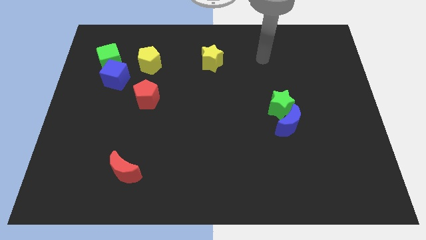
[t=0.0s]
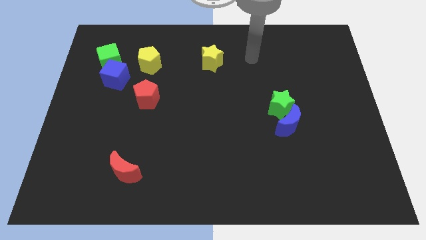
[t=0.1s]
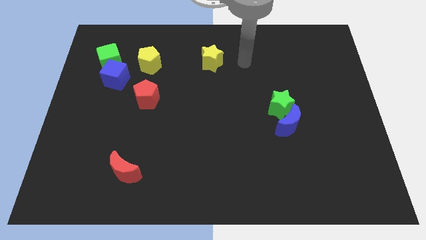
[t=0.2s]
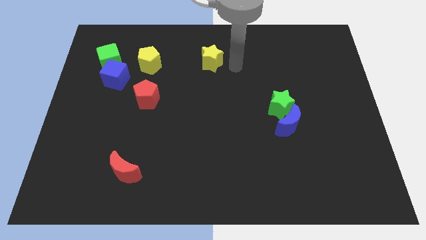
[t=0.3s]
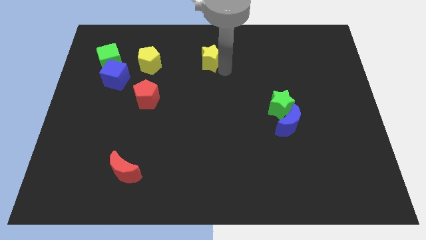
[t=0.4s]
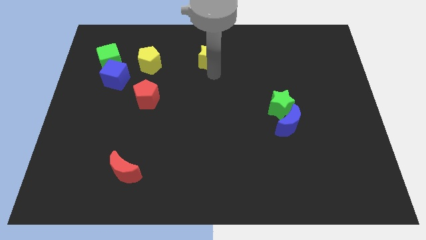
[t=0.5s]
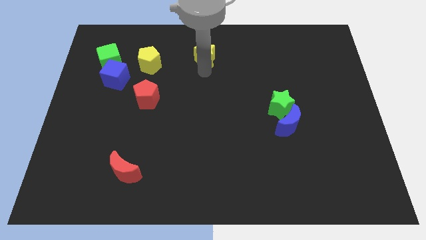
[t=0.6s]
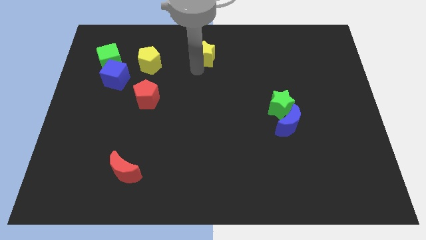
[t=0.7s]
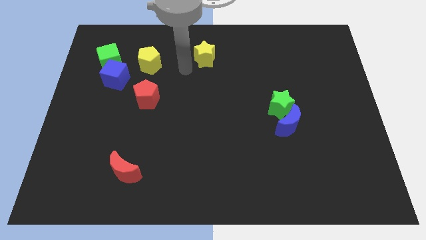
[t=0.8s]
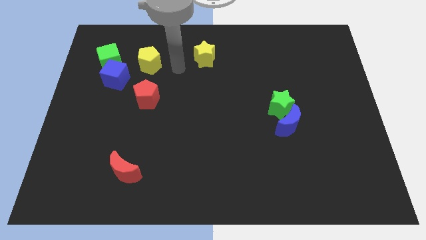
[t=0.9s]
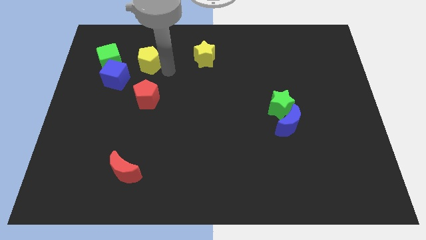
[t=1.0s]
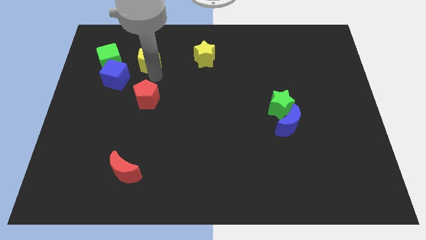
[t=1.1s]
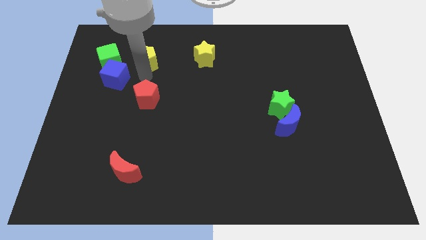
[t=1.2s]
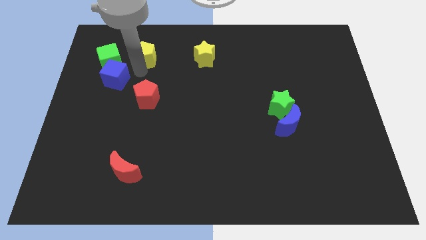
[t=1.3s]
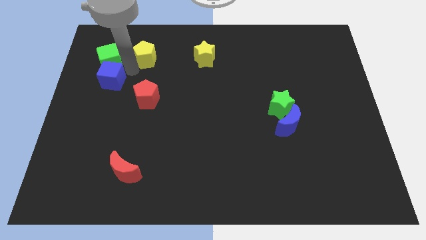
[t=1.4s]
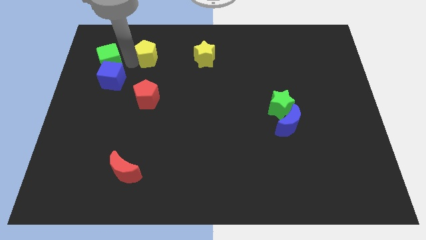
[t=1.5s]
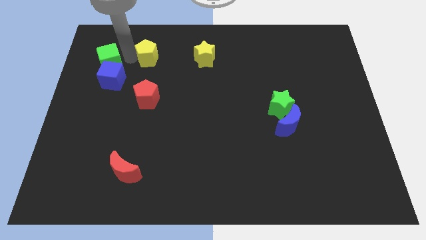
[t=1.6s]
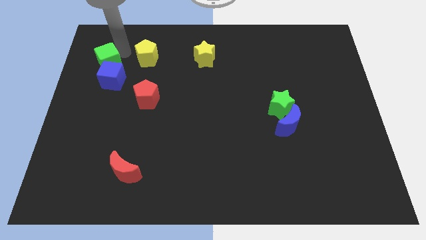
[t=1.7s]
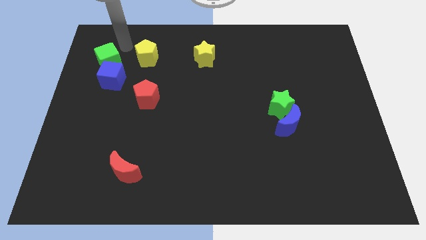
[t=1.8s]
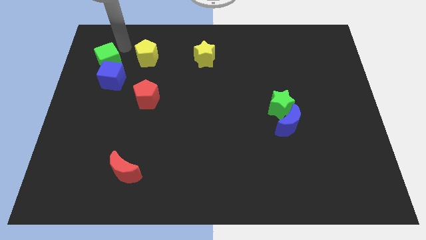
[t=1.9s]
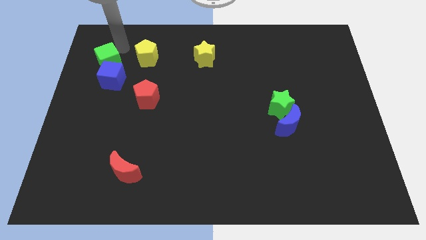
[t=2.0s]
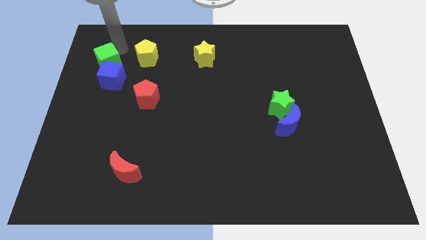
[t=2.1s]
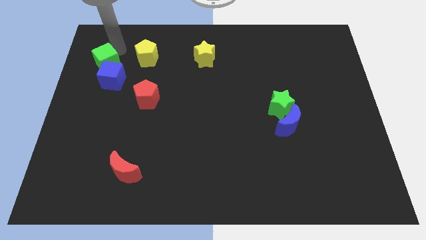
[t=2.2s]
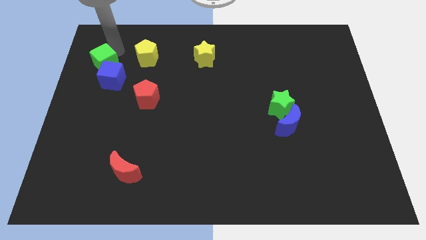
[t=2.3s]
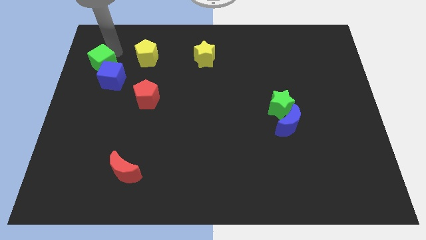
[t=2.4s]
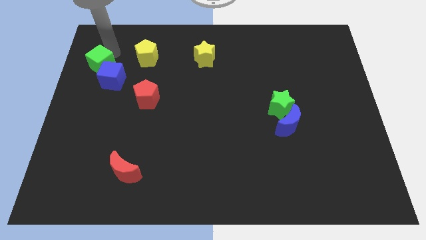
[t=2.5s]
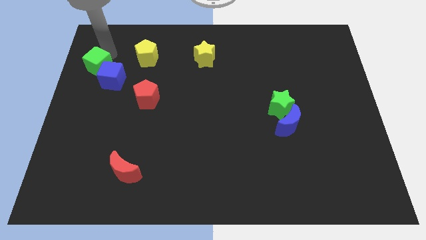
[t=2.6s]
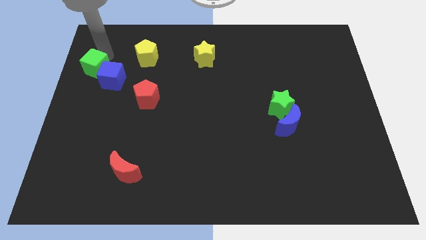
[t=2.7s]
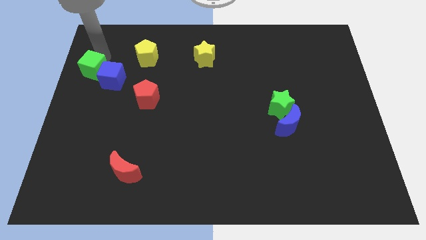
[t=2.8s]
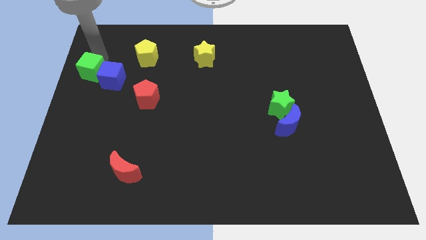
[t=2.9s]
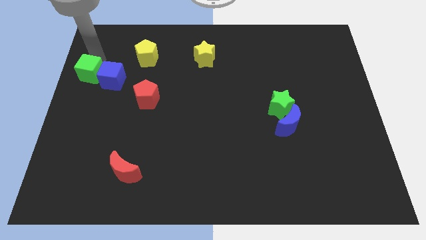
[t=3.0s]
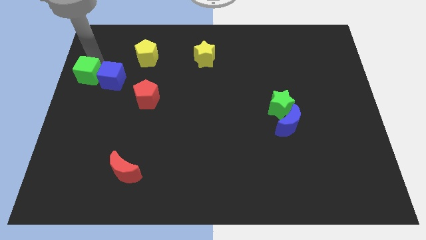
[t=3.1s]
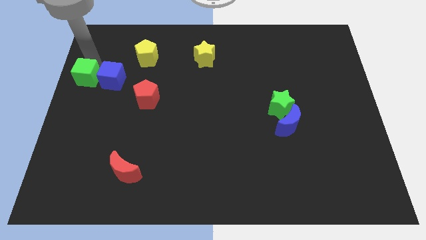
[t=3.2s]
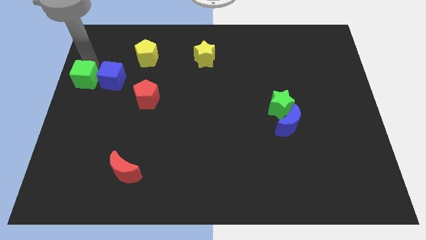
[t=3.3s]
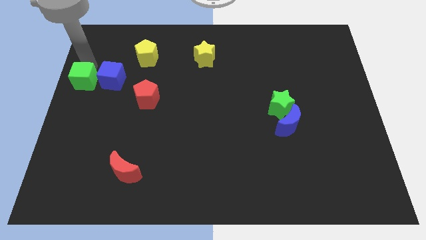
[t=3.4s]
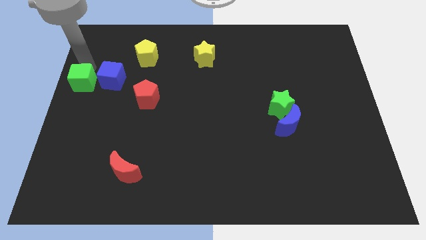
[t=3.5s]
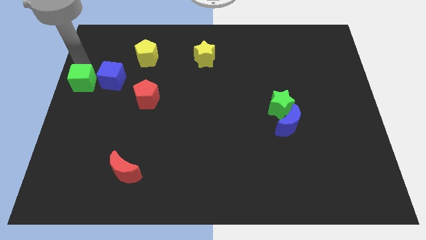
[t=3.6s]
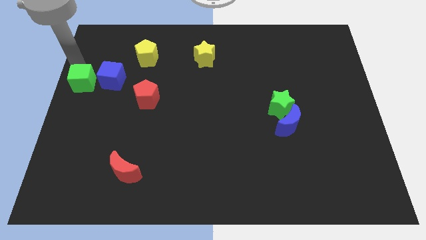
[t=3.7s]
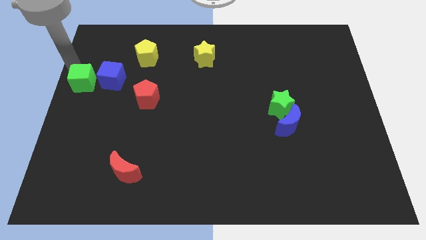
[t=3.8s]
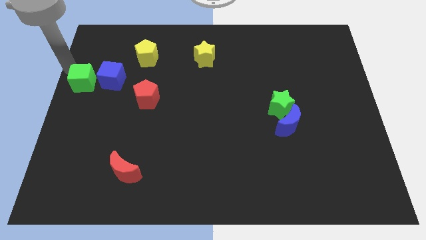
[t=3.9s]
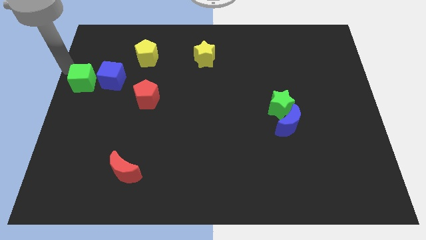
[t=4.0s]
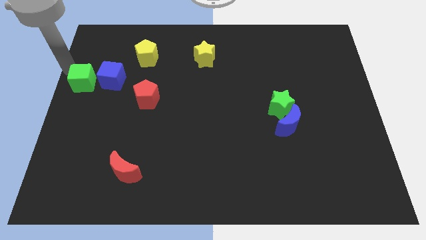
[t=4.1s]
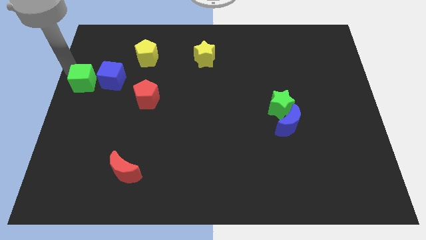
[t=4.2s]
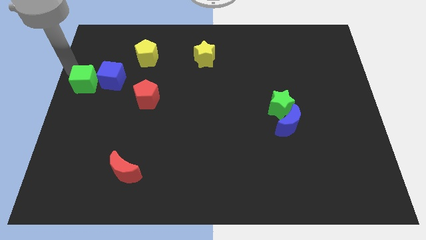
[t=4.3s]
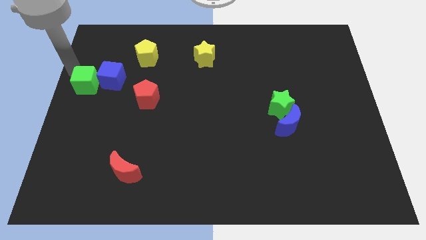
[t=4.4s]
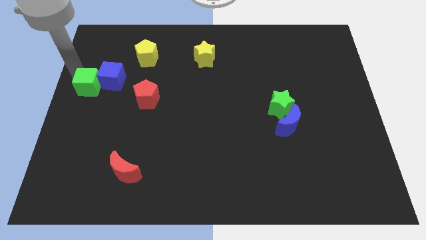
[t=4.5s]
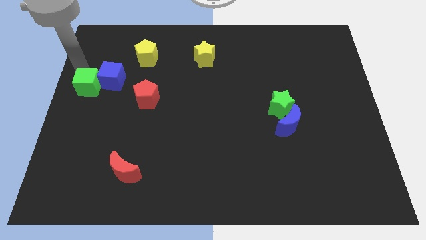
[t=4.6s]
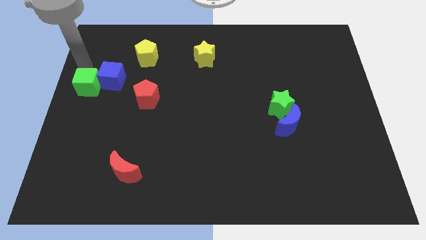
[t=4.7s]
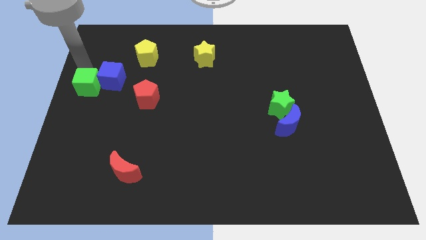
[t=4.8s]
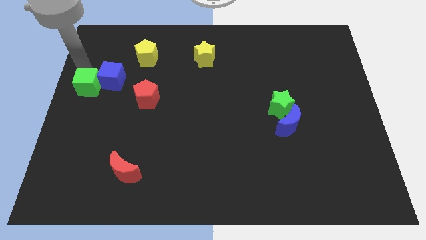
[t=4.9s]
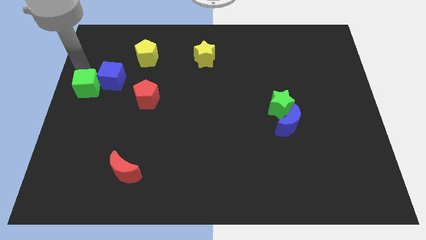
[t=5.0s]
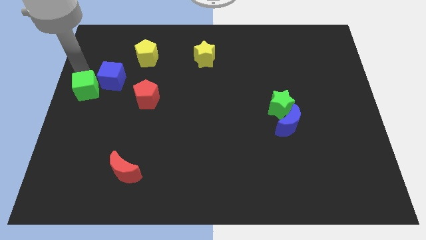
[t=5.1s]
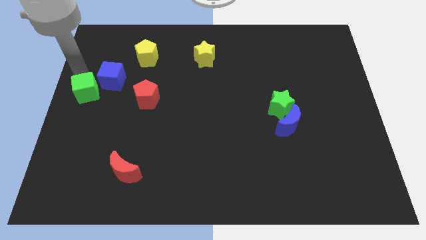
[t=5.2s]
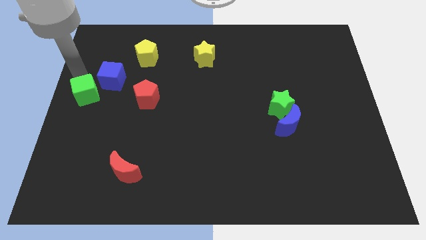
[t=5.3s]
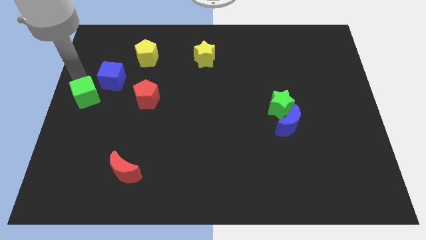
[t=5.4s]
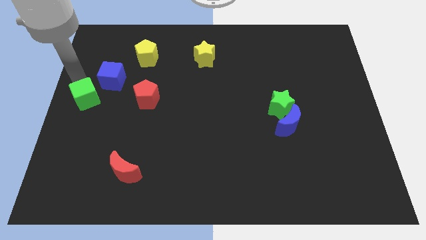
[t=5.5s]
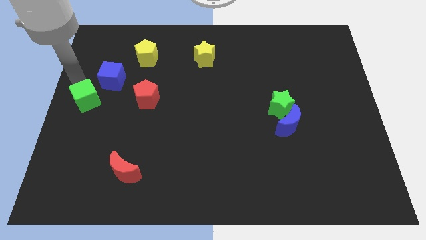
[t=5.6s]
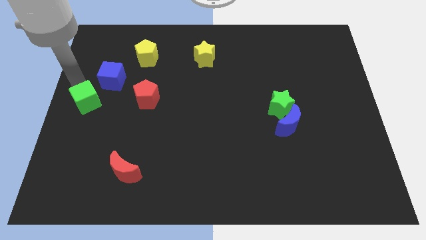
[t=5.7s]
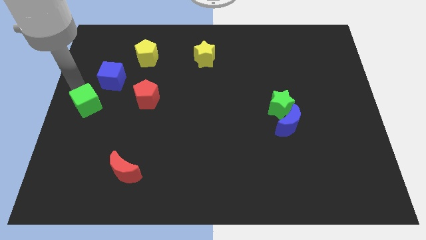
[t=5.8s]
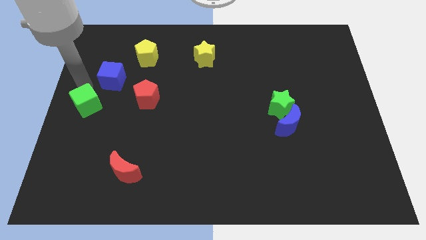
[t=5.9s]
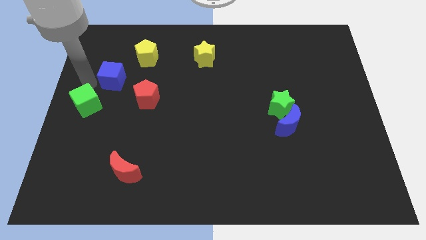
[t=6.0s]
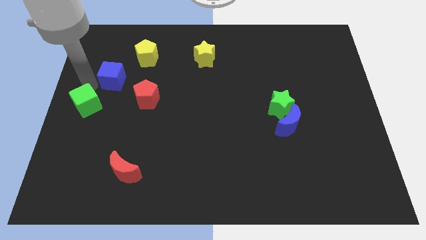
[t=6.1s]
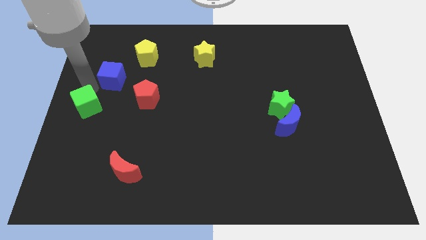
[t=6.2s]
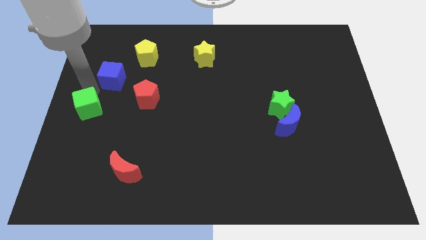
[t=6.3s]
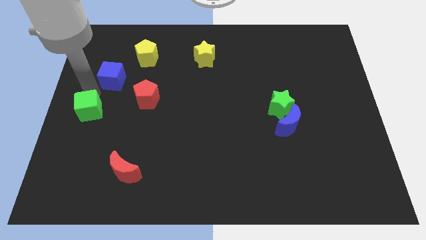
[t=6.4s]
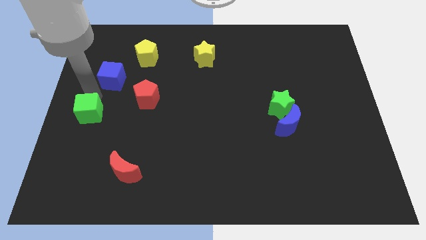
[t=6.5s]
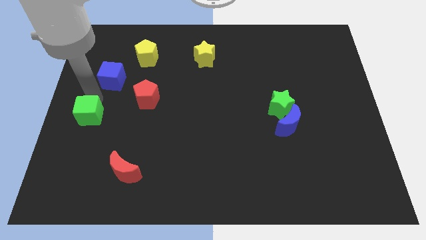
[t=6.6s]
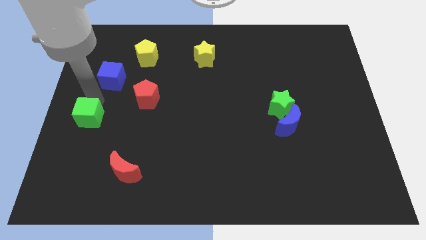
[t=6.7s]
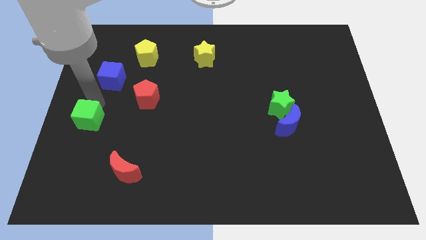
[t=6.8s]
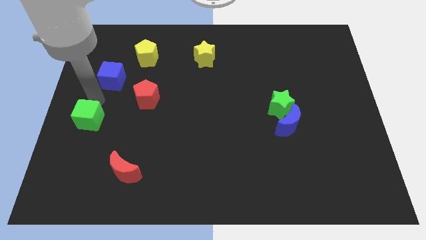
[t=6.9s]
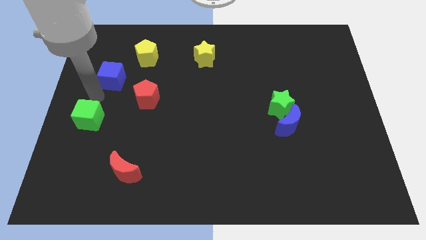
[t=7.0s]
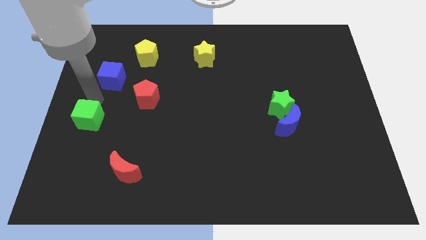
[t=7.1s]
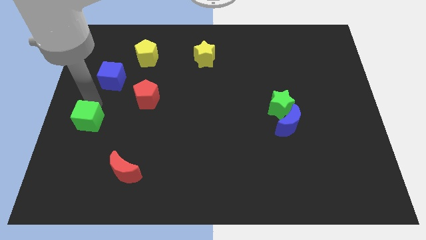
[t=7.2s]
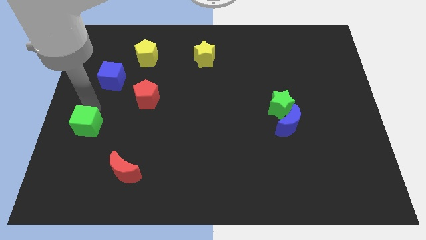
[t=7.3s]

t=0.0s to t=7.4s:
push the green cube downwards

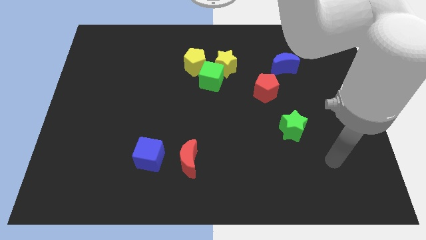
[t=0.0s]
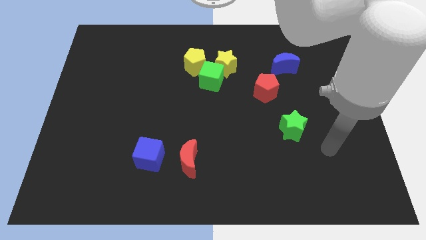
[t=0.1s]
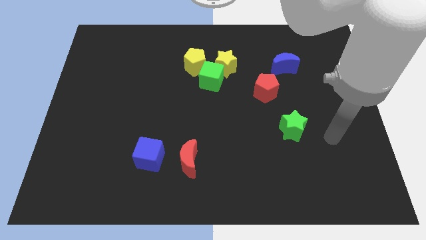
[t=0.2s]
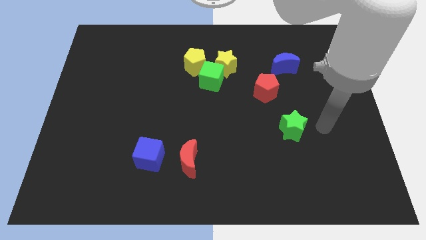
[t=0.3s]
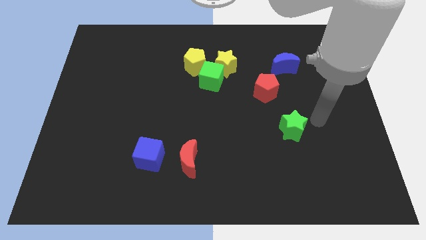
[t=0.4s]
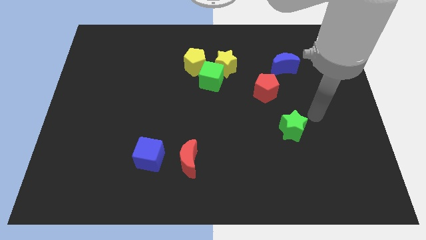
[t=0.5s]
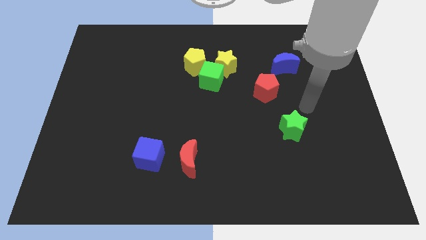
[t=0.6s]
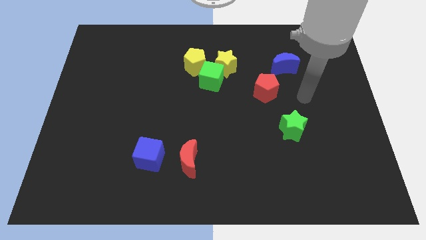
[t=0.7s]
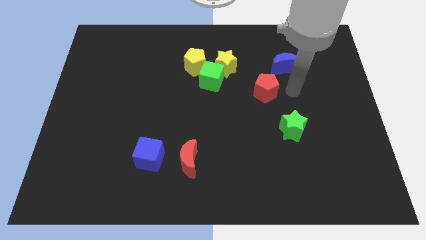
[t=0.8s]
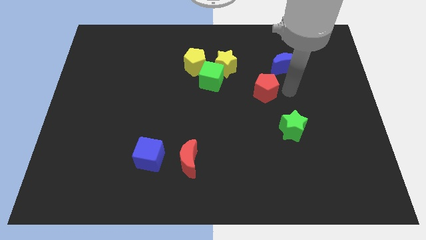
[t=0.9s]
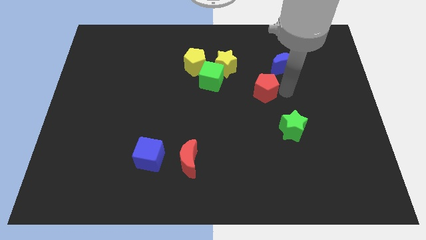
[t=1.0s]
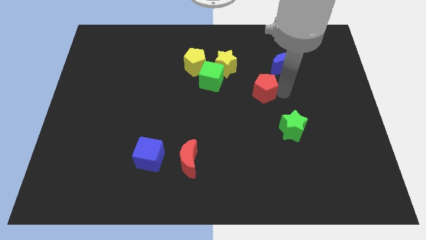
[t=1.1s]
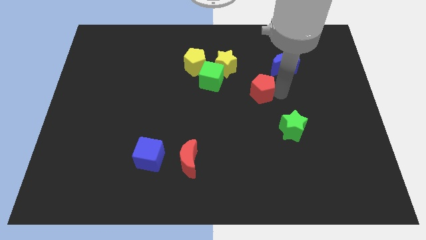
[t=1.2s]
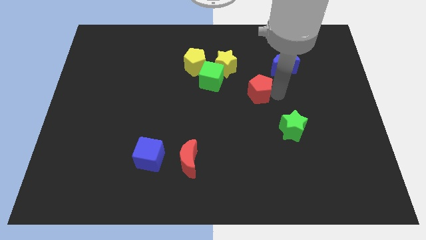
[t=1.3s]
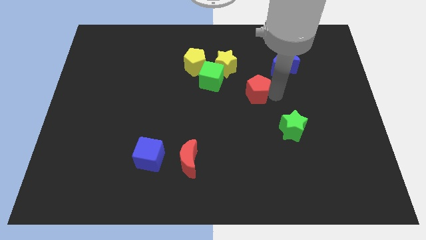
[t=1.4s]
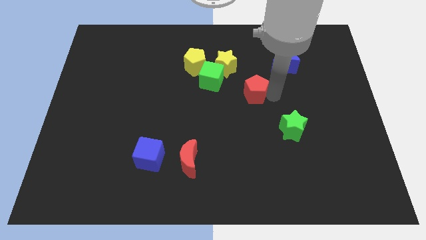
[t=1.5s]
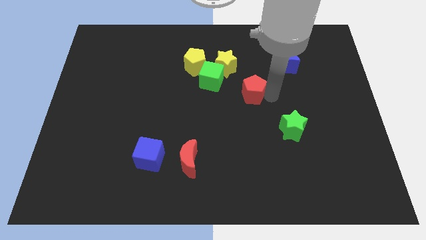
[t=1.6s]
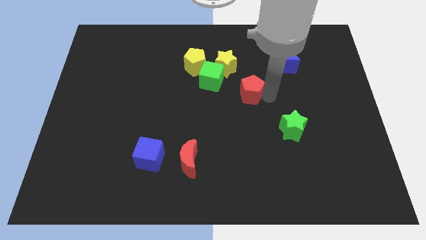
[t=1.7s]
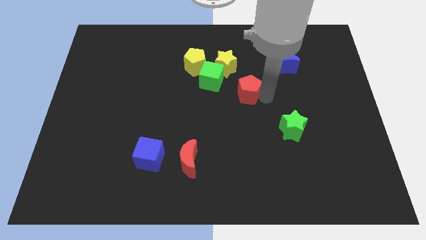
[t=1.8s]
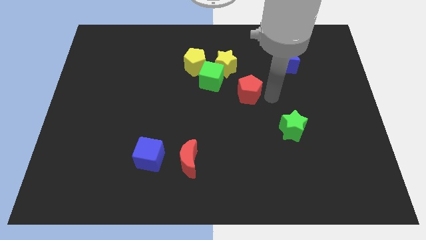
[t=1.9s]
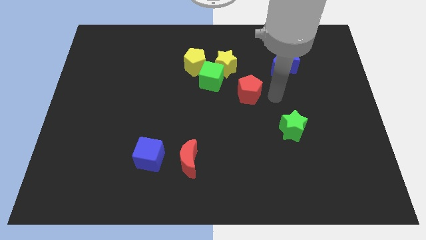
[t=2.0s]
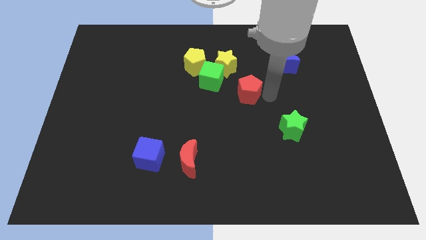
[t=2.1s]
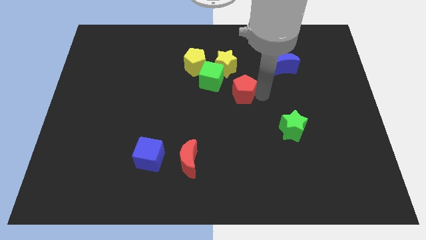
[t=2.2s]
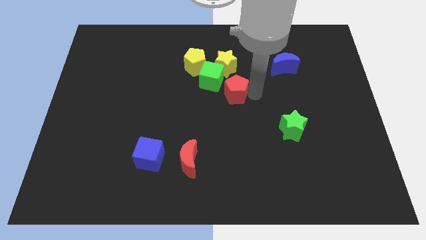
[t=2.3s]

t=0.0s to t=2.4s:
slightly push the red pentagon left
